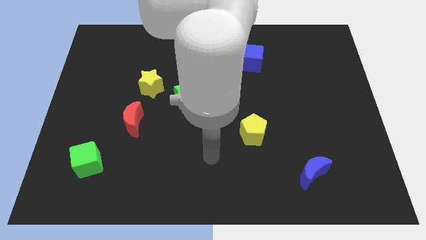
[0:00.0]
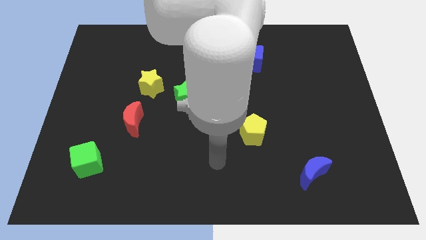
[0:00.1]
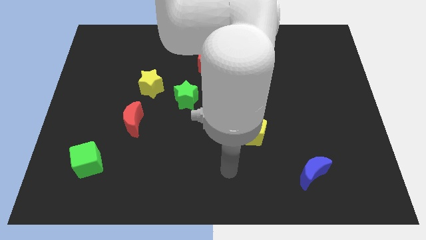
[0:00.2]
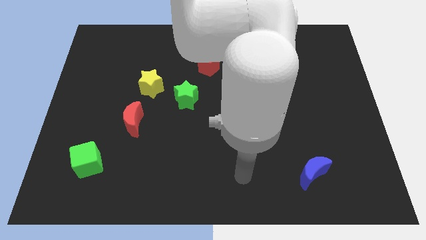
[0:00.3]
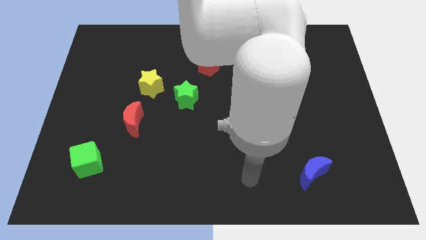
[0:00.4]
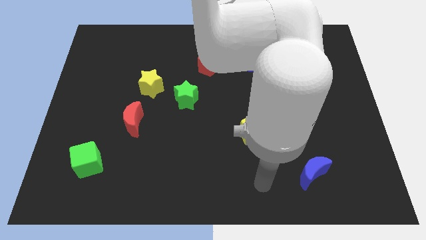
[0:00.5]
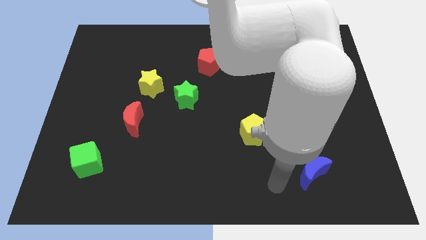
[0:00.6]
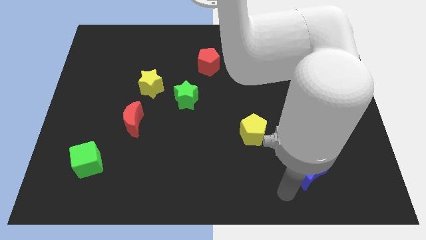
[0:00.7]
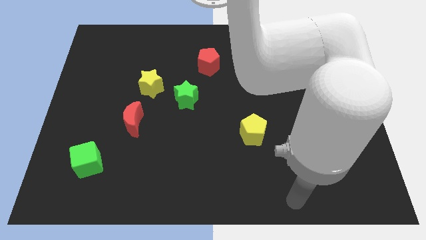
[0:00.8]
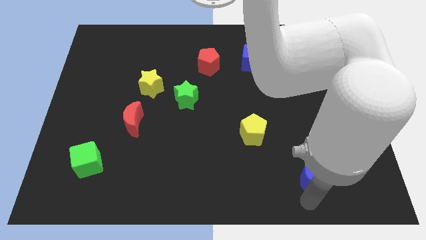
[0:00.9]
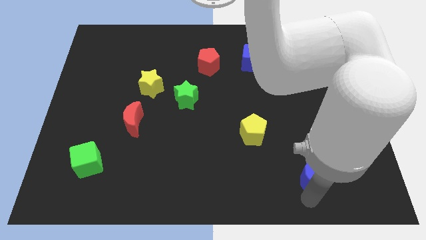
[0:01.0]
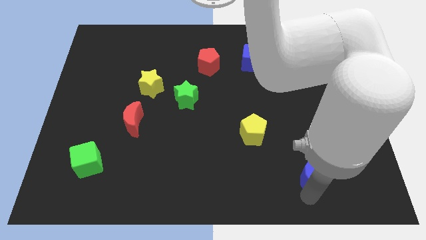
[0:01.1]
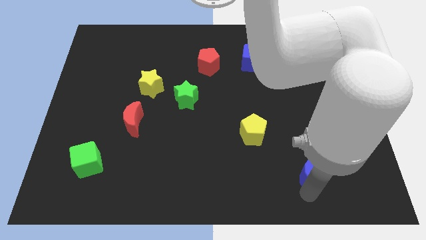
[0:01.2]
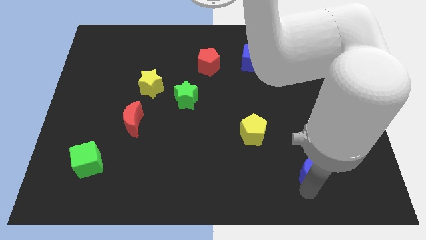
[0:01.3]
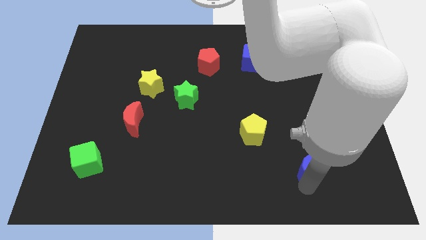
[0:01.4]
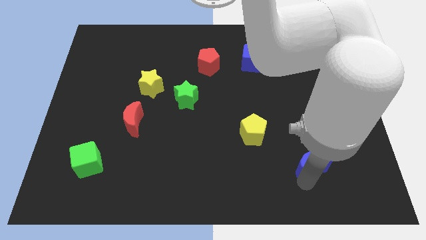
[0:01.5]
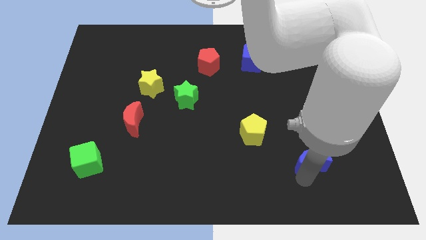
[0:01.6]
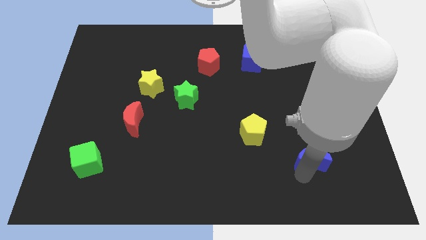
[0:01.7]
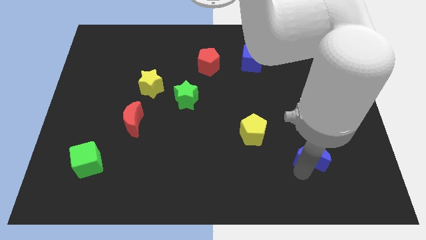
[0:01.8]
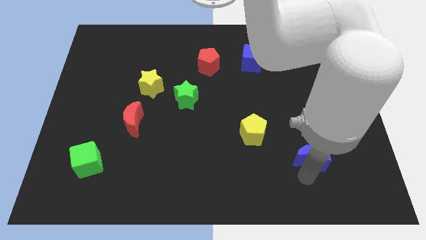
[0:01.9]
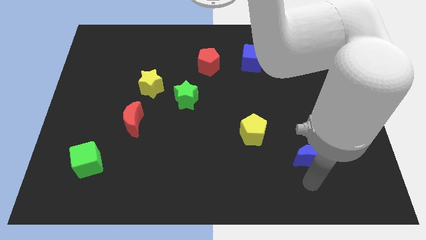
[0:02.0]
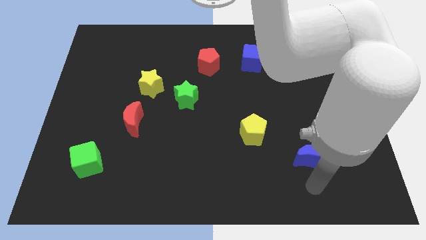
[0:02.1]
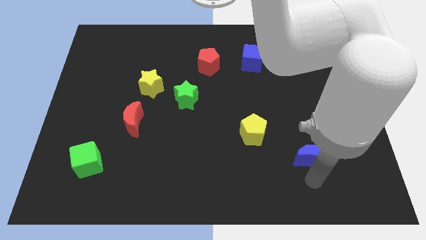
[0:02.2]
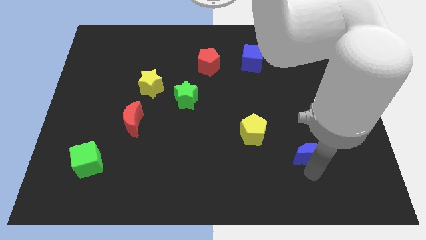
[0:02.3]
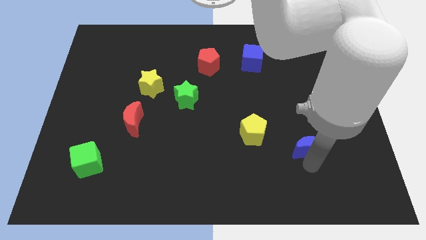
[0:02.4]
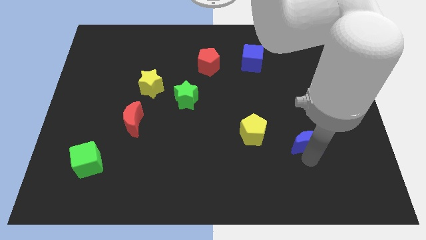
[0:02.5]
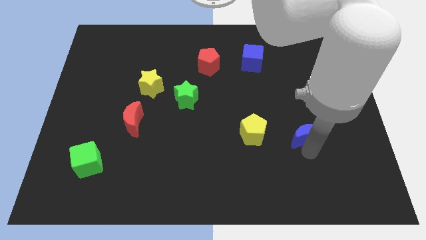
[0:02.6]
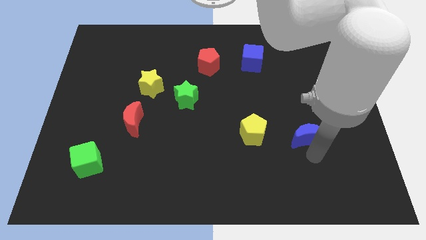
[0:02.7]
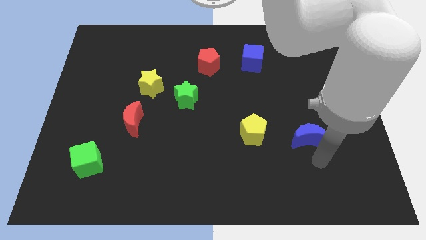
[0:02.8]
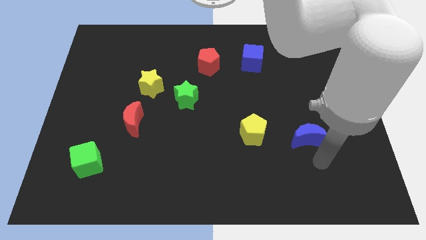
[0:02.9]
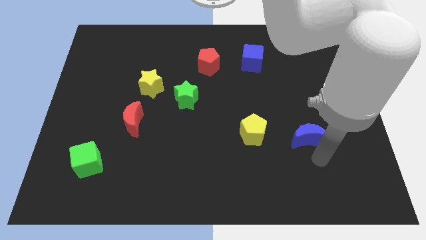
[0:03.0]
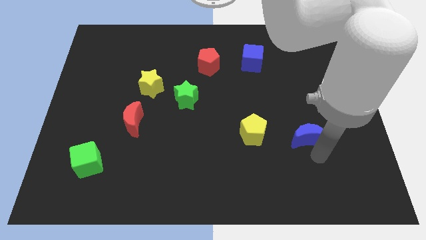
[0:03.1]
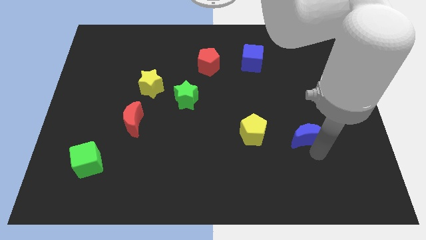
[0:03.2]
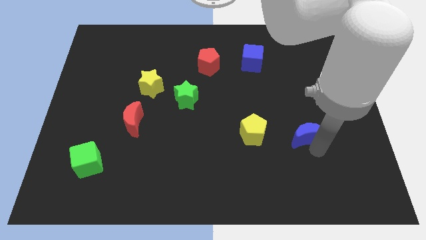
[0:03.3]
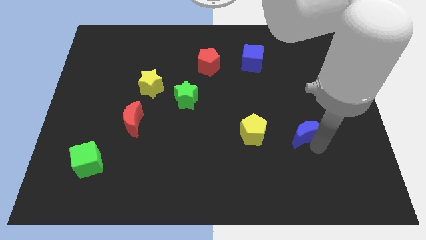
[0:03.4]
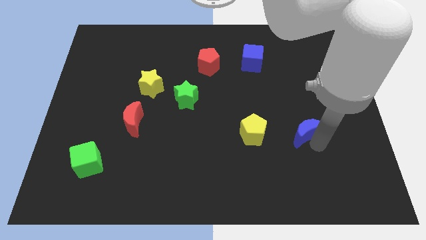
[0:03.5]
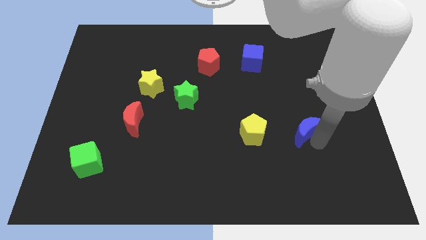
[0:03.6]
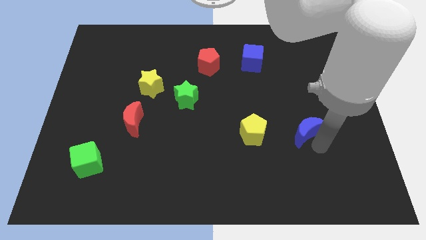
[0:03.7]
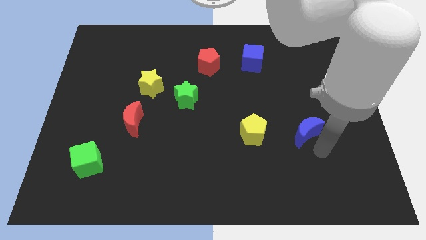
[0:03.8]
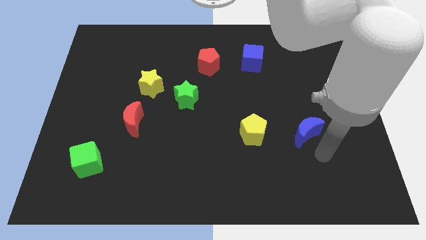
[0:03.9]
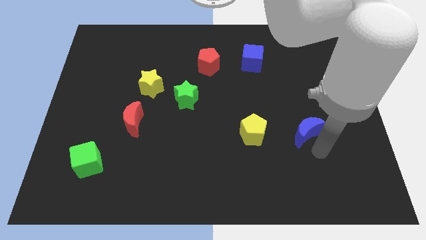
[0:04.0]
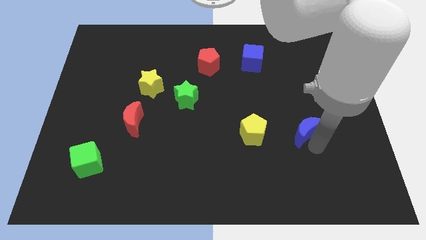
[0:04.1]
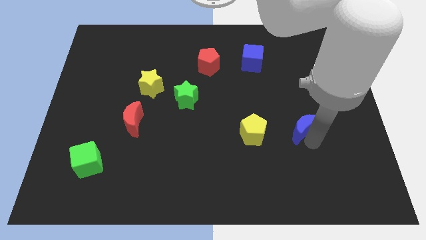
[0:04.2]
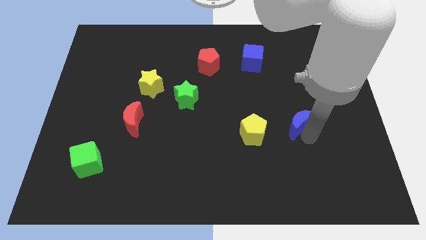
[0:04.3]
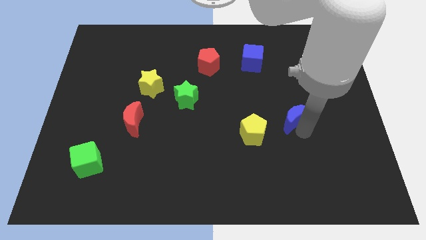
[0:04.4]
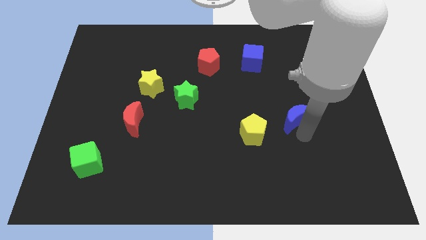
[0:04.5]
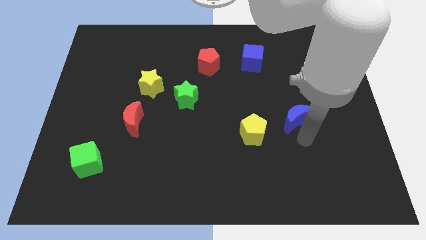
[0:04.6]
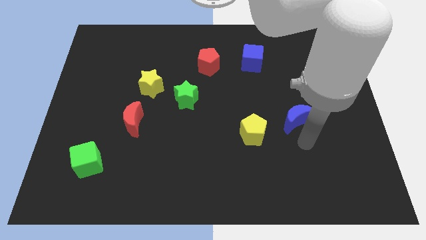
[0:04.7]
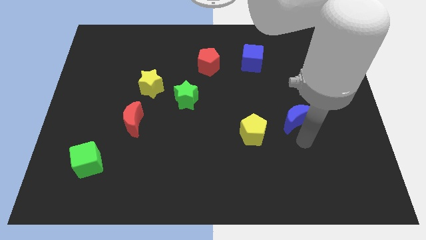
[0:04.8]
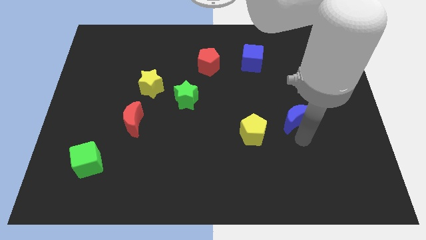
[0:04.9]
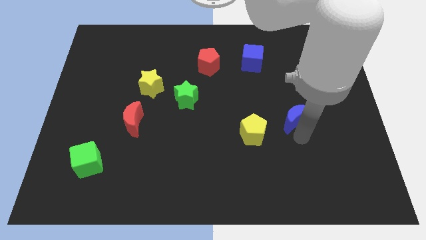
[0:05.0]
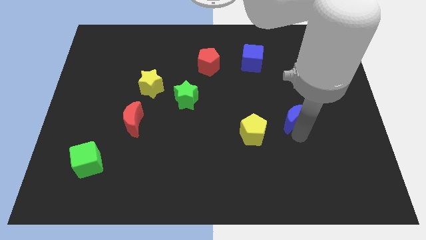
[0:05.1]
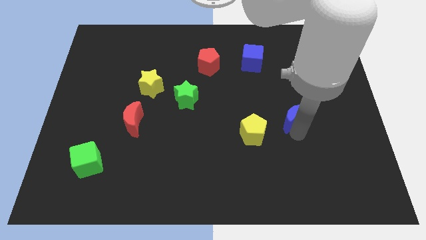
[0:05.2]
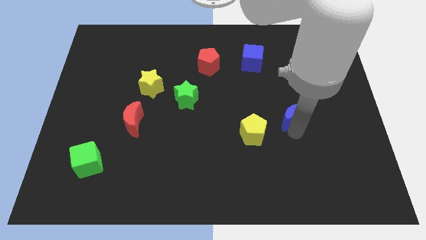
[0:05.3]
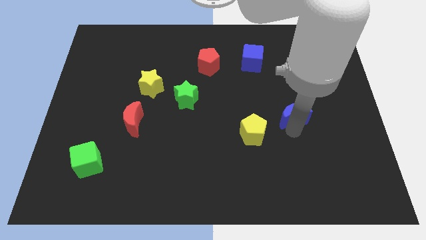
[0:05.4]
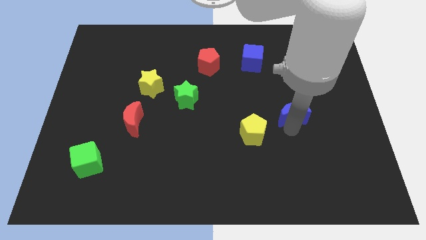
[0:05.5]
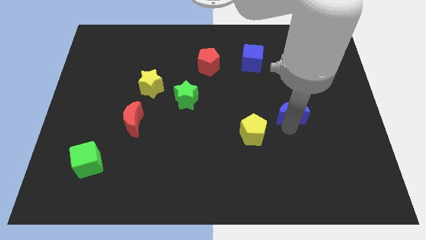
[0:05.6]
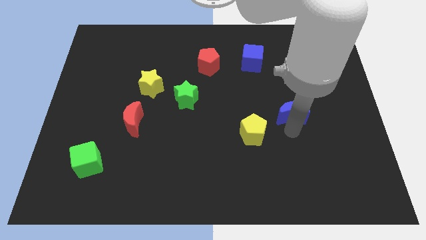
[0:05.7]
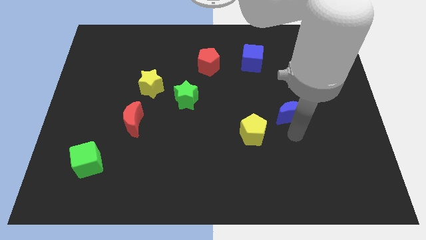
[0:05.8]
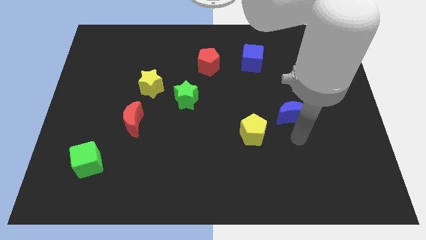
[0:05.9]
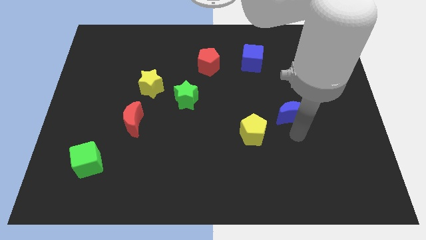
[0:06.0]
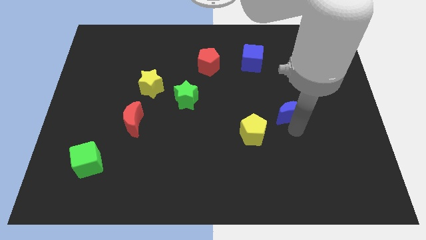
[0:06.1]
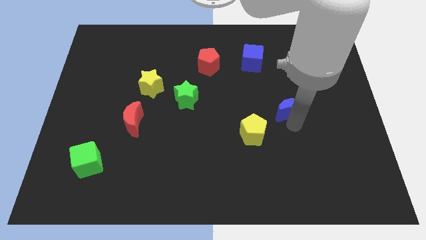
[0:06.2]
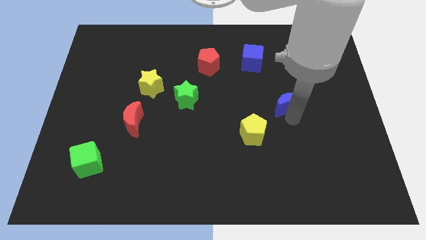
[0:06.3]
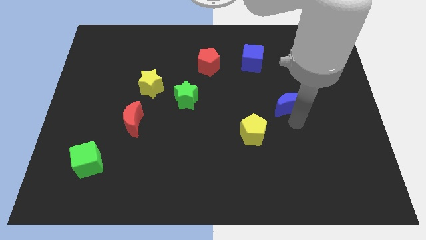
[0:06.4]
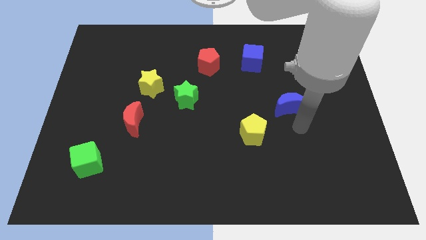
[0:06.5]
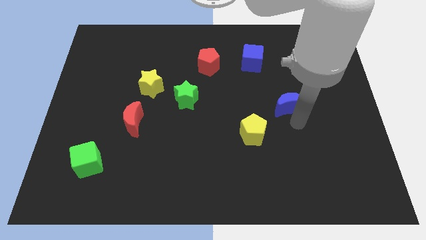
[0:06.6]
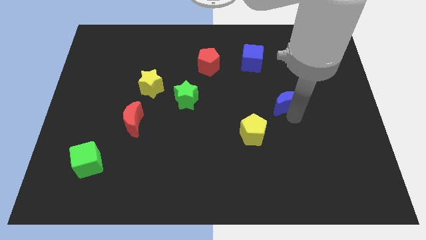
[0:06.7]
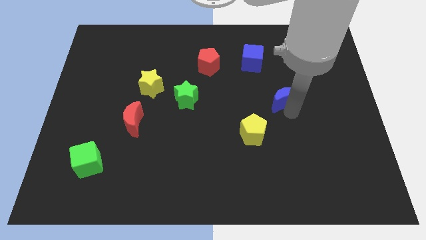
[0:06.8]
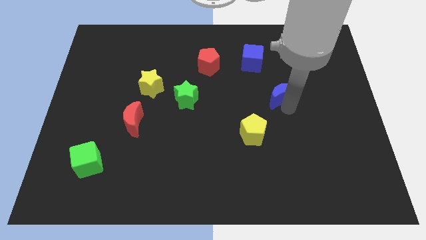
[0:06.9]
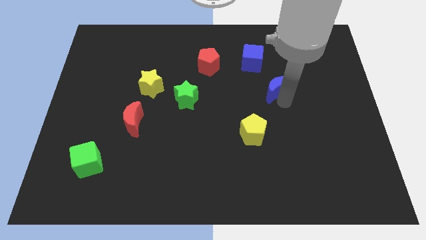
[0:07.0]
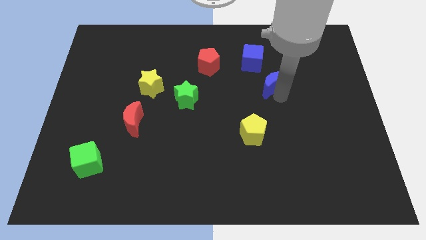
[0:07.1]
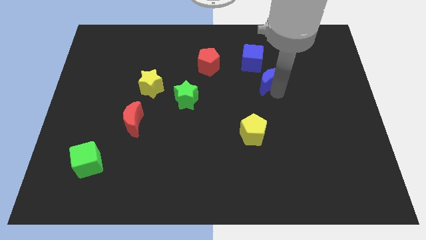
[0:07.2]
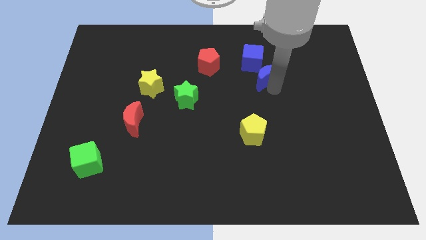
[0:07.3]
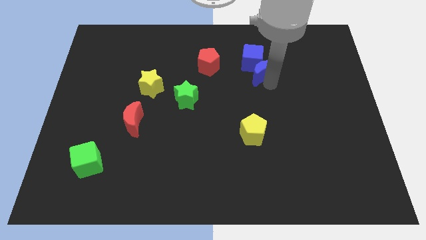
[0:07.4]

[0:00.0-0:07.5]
push the blue moon to the blue cube
